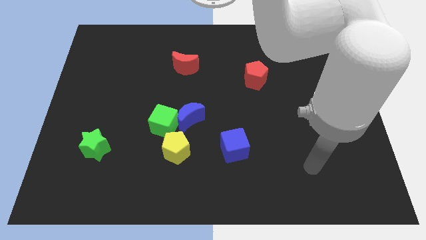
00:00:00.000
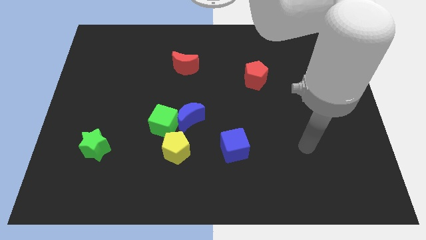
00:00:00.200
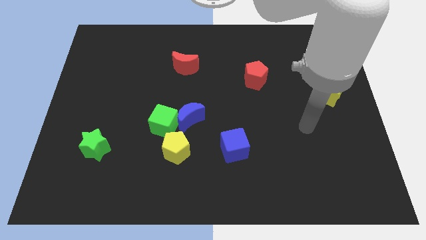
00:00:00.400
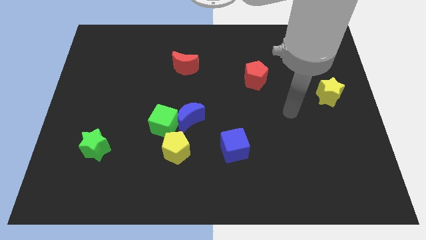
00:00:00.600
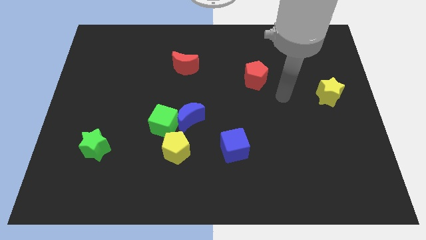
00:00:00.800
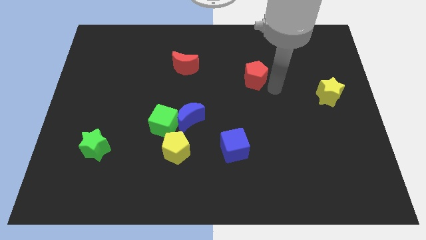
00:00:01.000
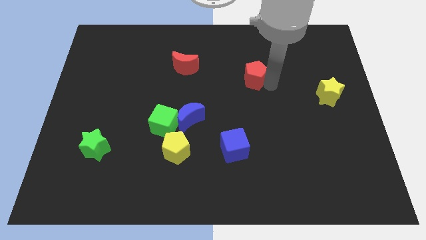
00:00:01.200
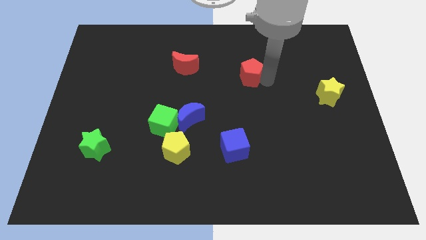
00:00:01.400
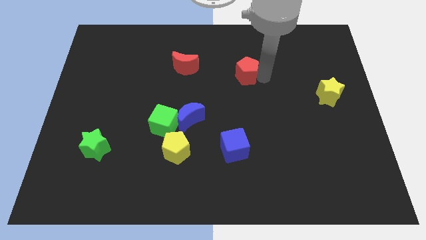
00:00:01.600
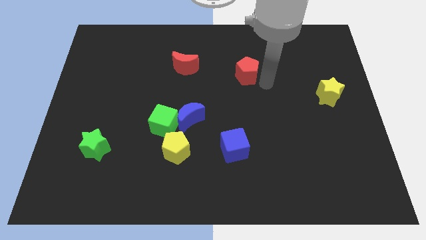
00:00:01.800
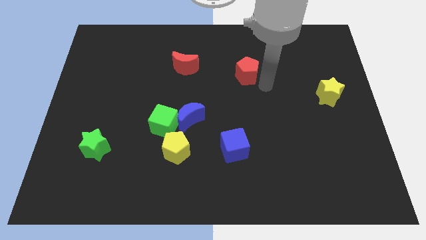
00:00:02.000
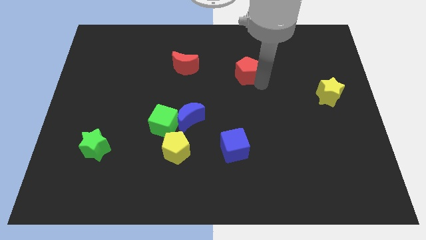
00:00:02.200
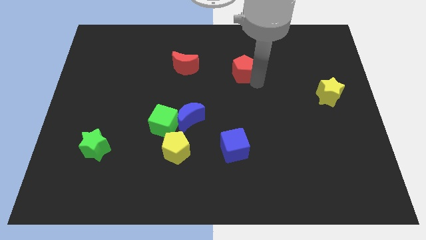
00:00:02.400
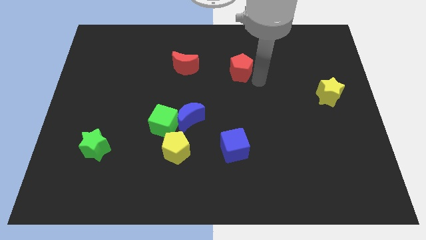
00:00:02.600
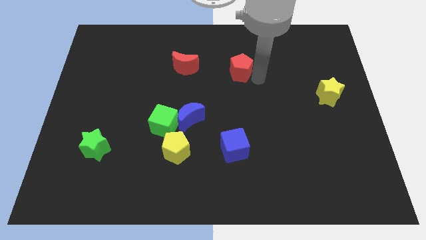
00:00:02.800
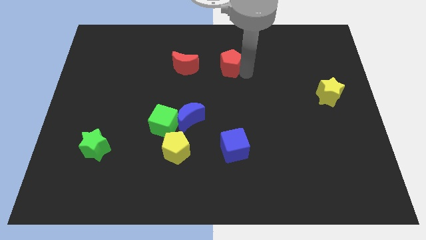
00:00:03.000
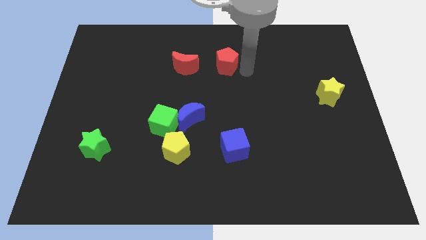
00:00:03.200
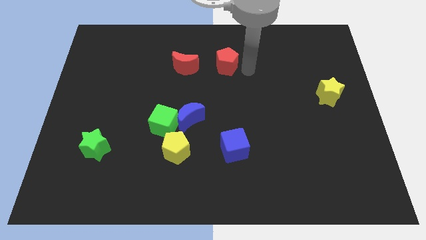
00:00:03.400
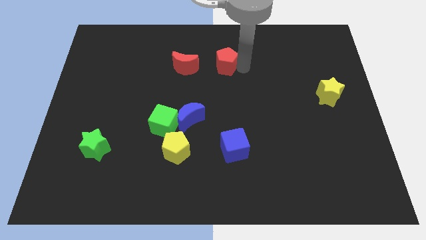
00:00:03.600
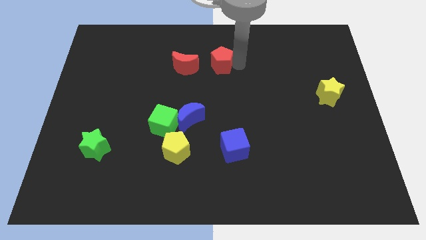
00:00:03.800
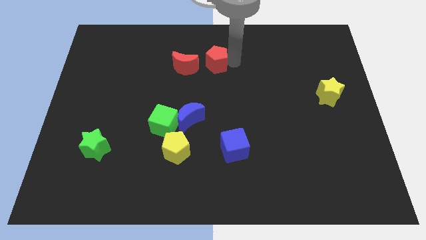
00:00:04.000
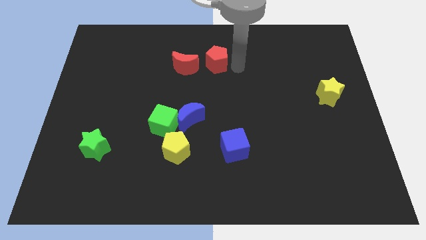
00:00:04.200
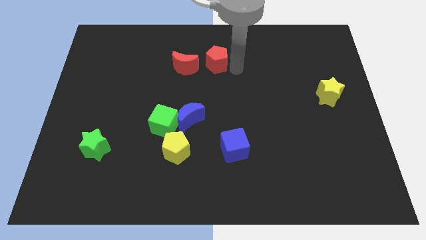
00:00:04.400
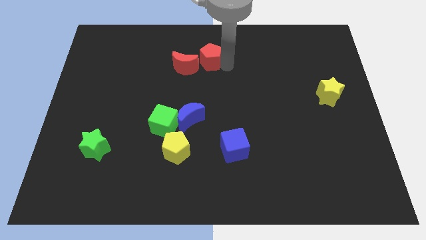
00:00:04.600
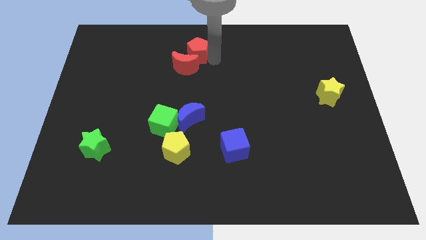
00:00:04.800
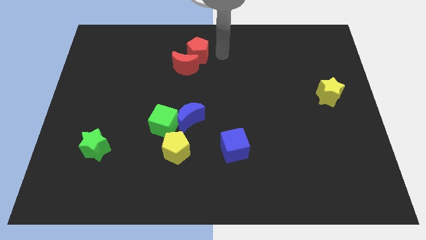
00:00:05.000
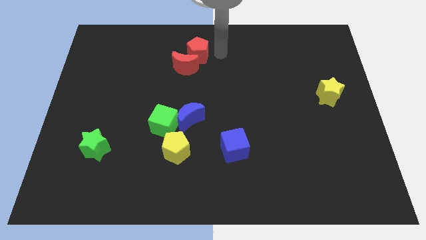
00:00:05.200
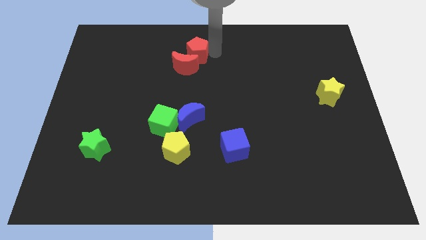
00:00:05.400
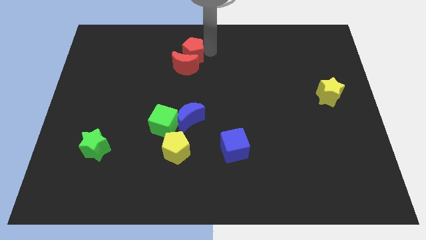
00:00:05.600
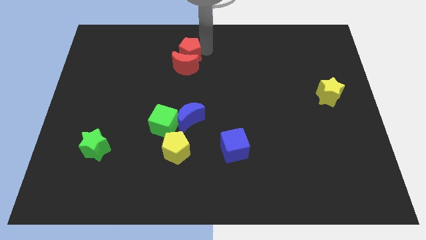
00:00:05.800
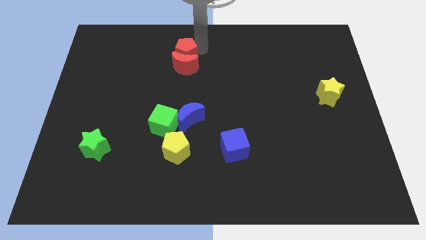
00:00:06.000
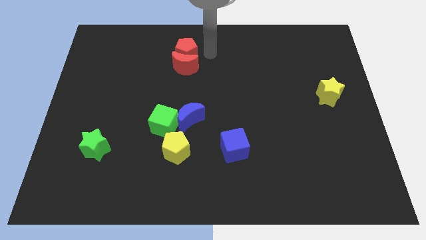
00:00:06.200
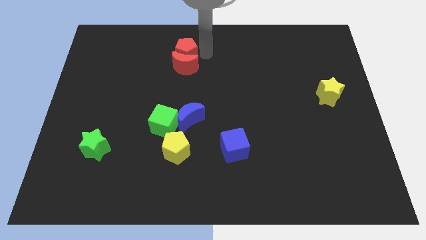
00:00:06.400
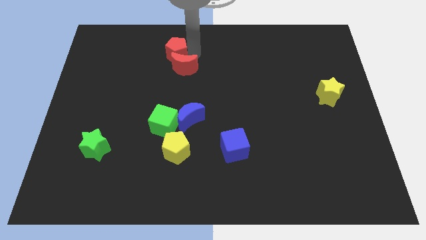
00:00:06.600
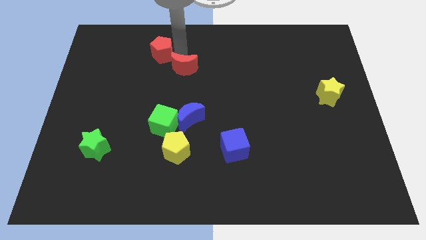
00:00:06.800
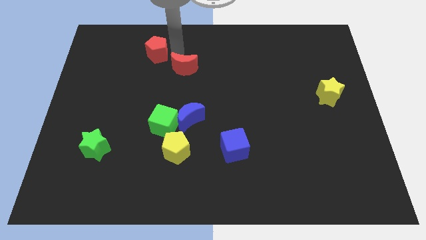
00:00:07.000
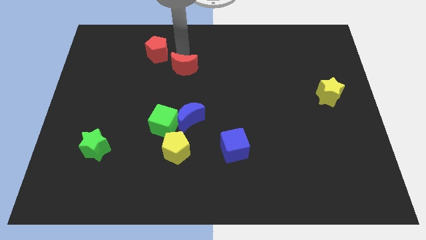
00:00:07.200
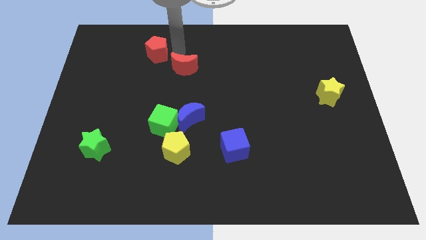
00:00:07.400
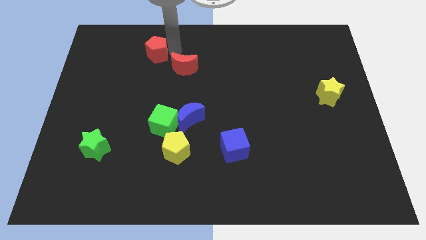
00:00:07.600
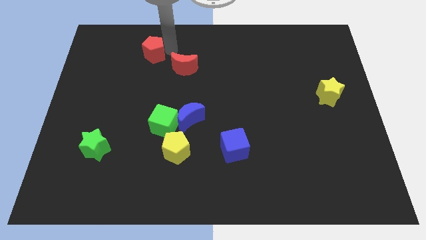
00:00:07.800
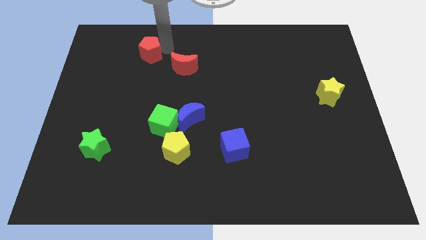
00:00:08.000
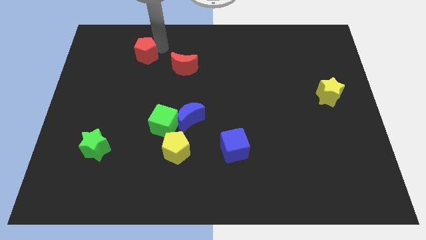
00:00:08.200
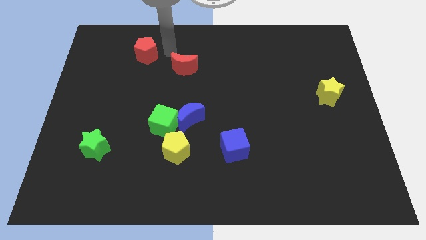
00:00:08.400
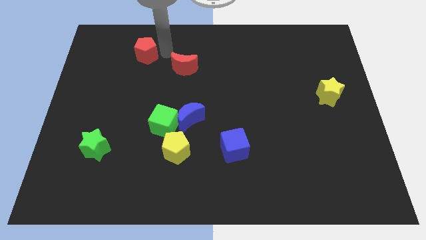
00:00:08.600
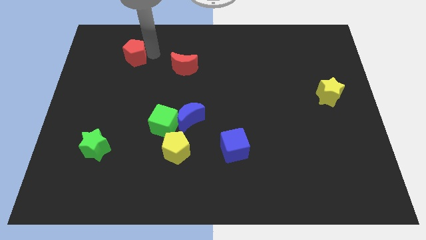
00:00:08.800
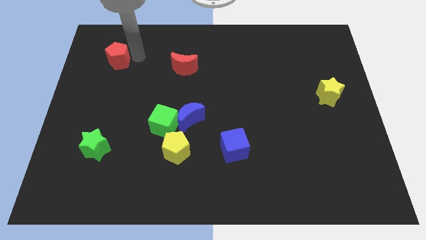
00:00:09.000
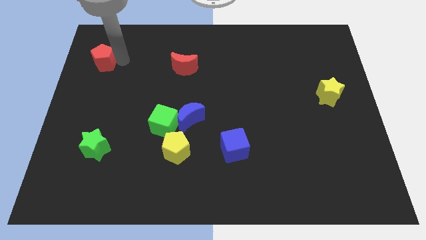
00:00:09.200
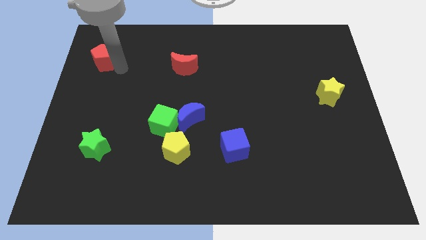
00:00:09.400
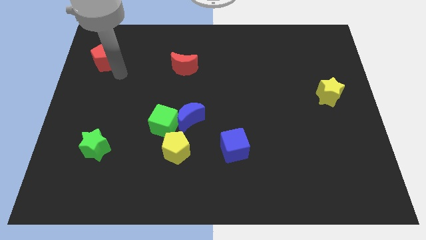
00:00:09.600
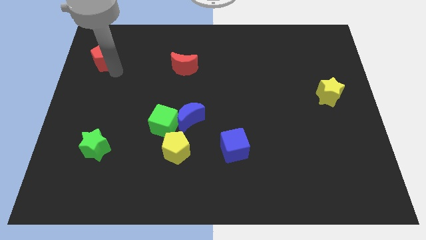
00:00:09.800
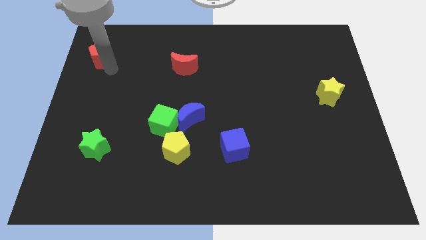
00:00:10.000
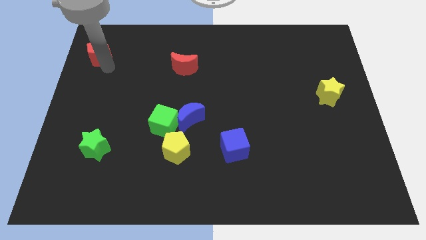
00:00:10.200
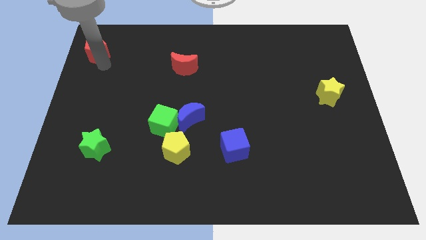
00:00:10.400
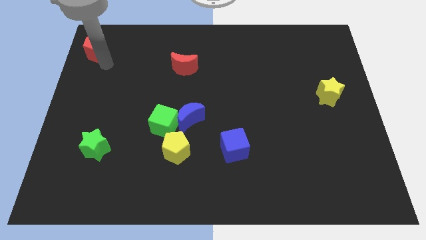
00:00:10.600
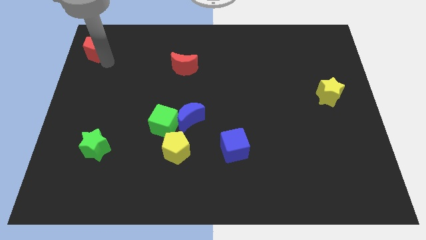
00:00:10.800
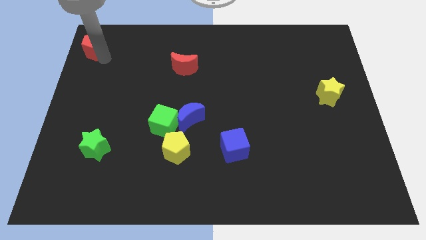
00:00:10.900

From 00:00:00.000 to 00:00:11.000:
slide the red pentagon to the upper left corner
